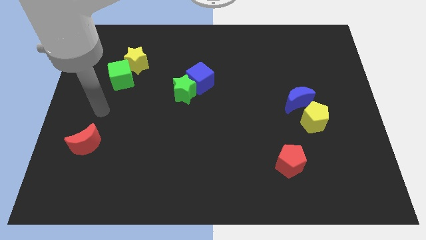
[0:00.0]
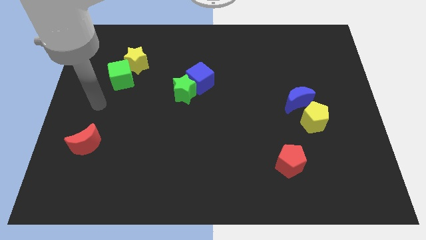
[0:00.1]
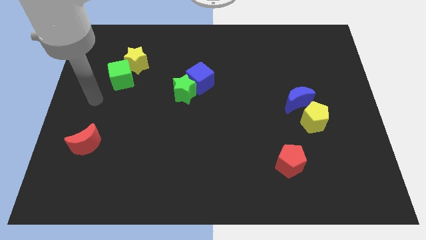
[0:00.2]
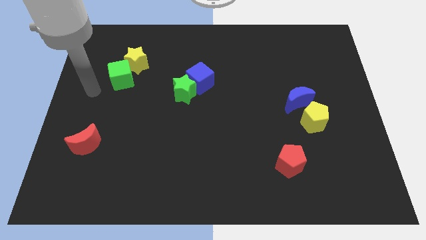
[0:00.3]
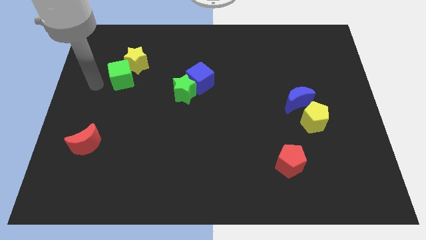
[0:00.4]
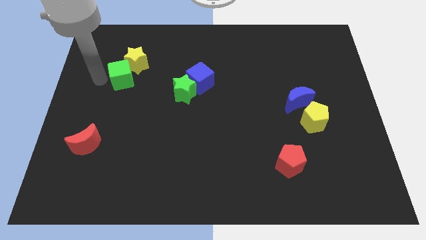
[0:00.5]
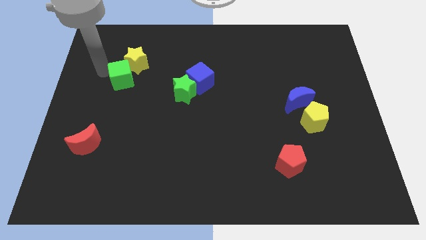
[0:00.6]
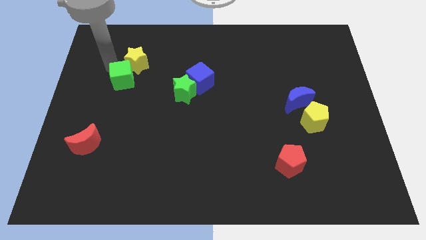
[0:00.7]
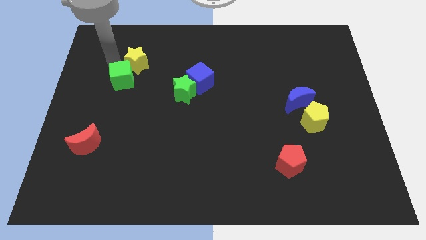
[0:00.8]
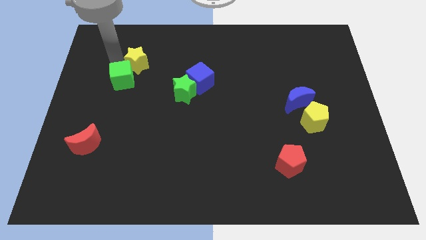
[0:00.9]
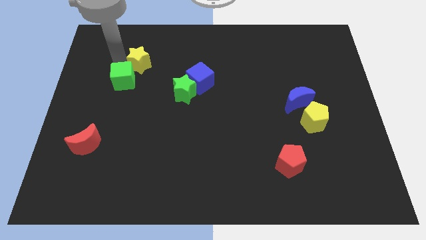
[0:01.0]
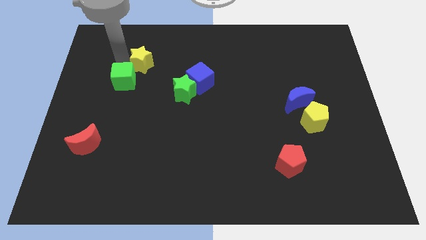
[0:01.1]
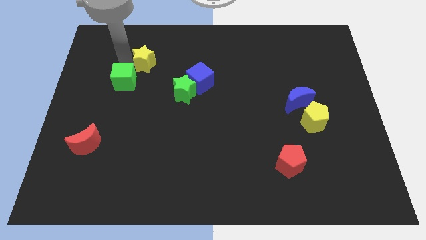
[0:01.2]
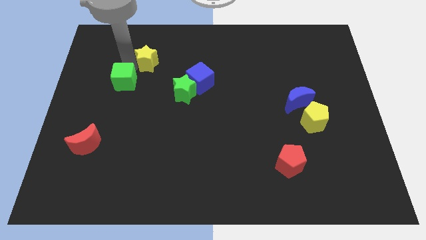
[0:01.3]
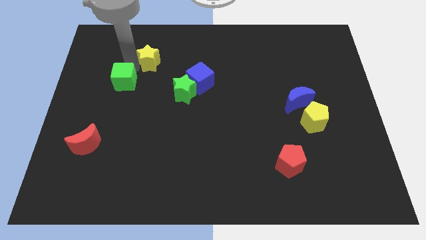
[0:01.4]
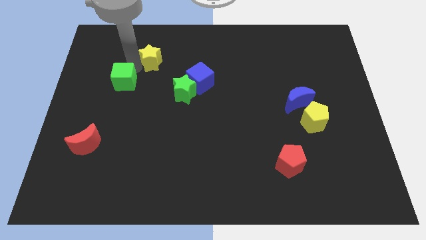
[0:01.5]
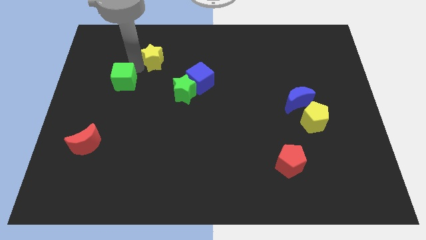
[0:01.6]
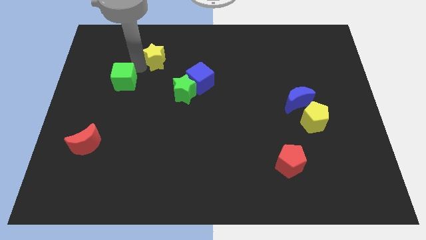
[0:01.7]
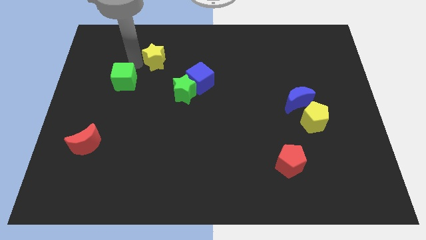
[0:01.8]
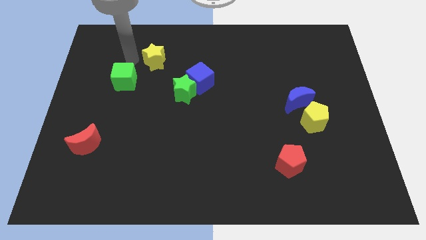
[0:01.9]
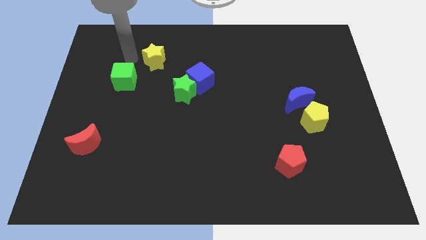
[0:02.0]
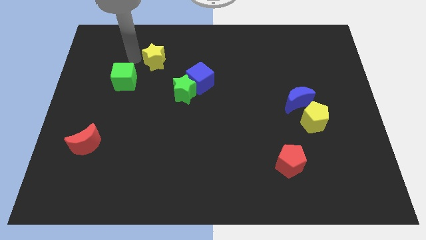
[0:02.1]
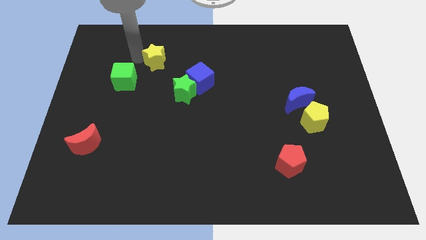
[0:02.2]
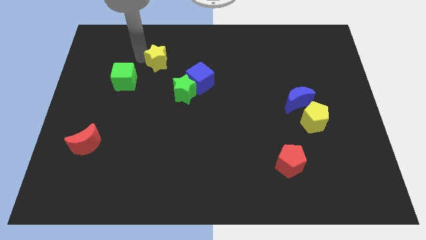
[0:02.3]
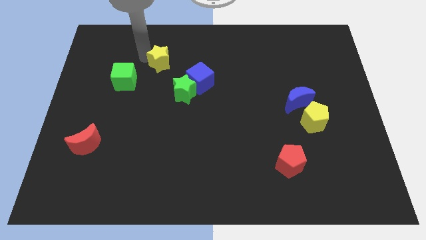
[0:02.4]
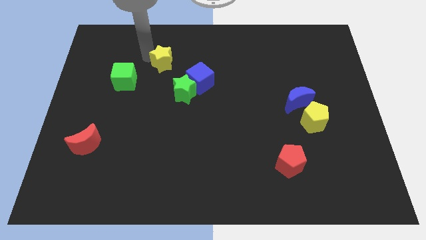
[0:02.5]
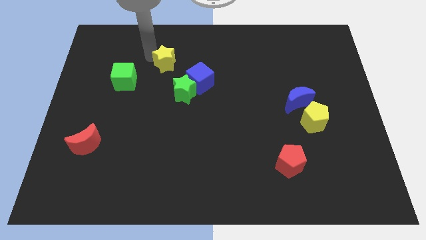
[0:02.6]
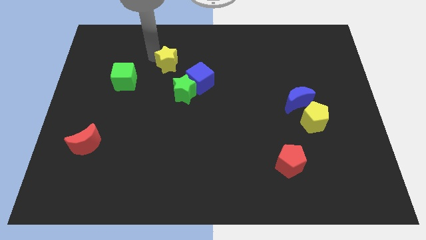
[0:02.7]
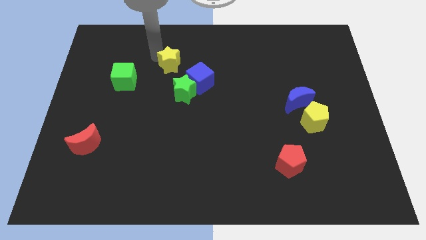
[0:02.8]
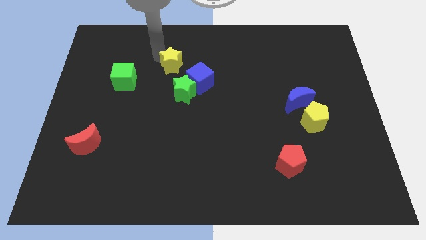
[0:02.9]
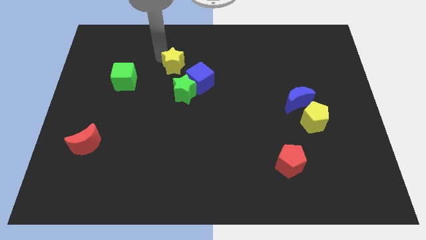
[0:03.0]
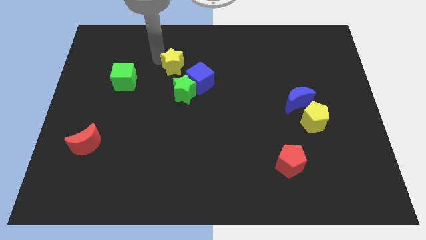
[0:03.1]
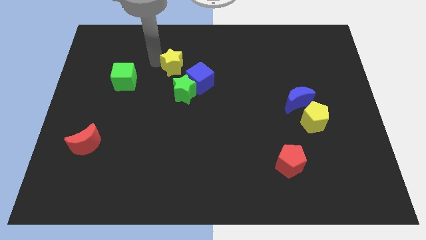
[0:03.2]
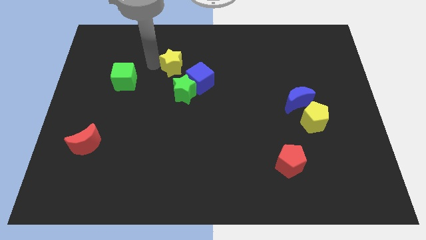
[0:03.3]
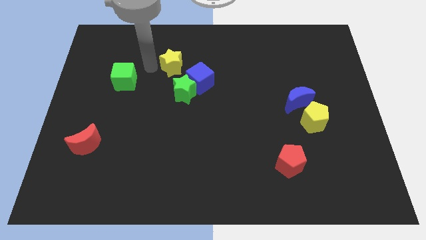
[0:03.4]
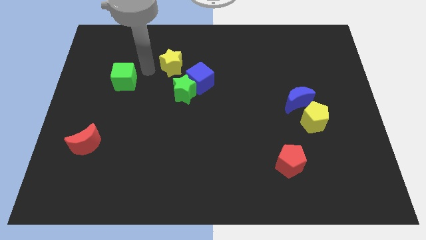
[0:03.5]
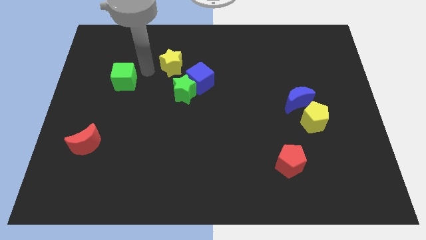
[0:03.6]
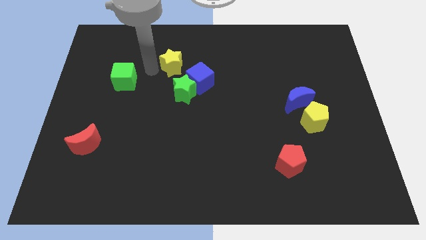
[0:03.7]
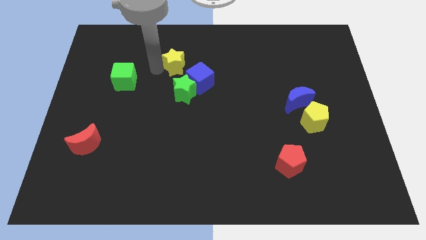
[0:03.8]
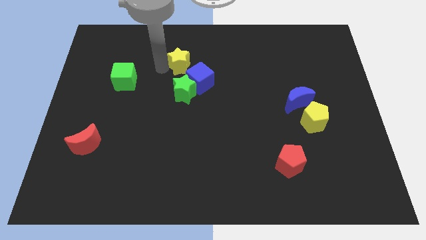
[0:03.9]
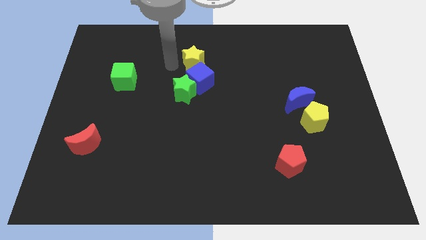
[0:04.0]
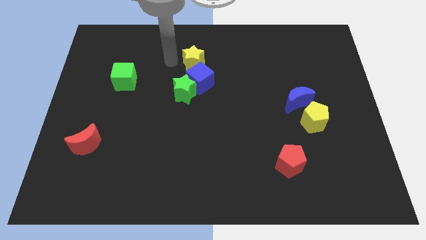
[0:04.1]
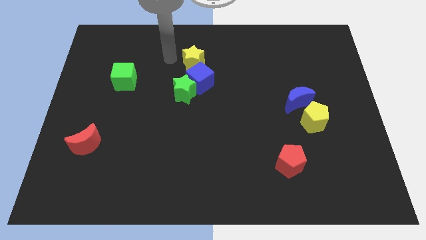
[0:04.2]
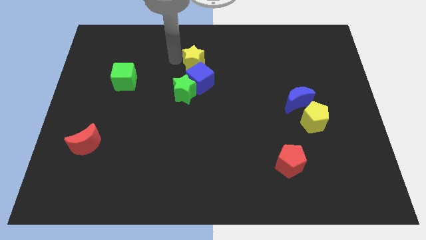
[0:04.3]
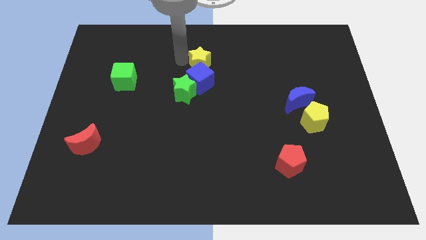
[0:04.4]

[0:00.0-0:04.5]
push the yellow star to the top right of the blue cube

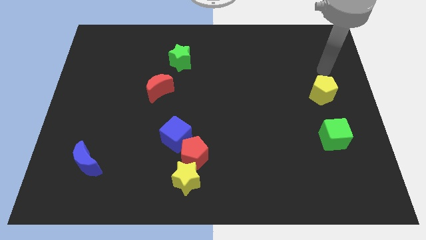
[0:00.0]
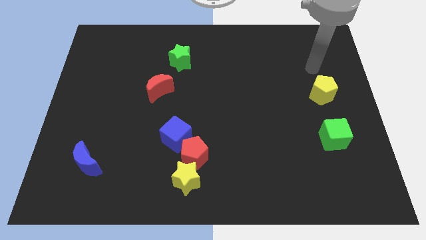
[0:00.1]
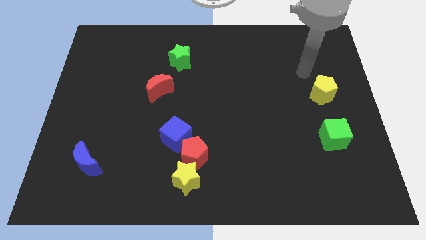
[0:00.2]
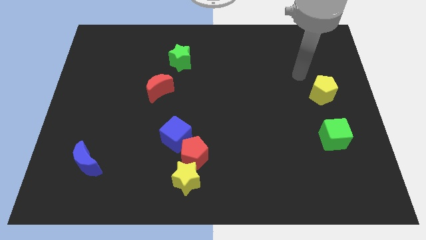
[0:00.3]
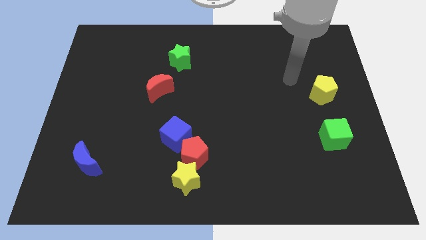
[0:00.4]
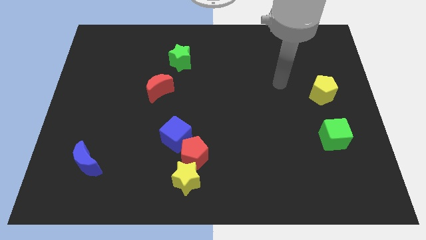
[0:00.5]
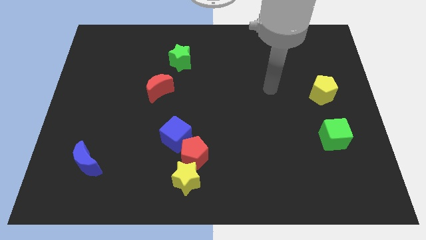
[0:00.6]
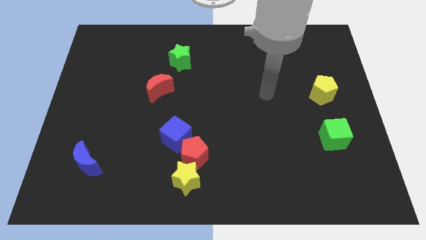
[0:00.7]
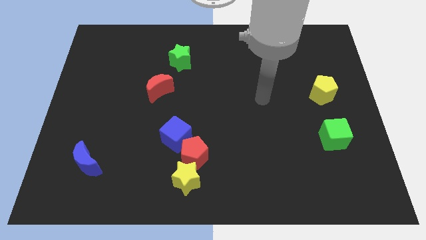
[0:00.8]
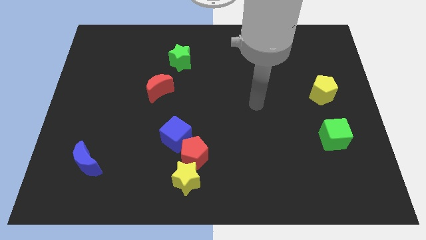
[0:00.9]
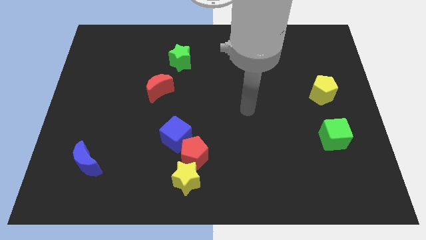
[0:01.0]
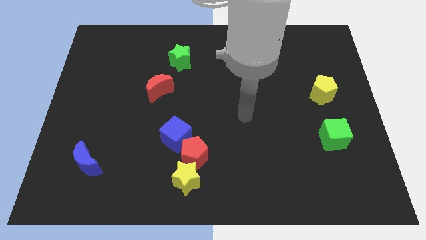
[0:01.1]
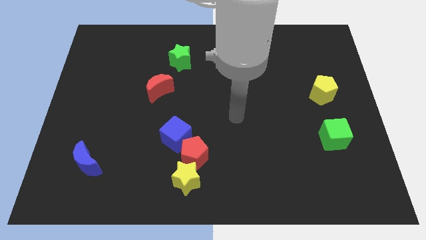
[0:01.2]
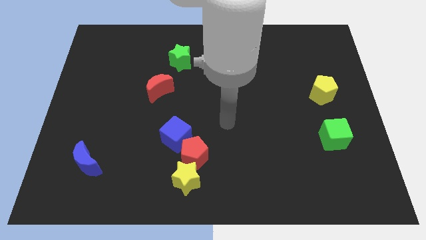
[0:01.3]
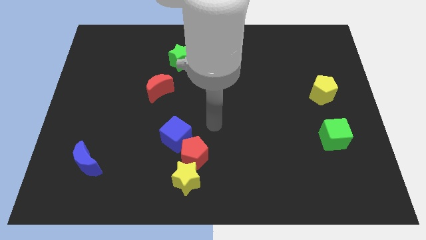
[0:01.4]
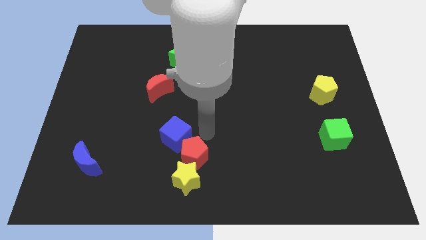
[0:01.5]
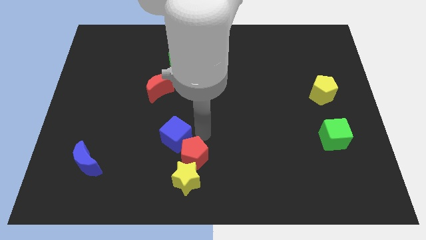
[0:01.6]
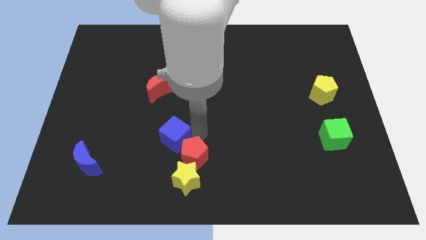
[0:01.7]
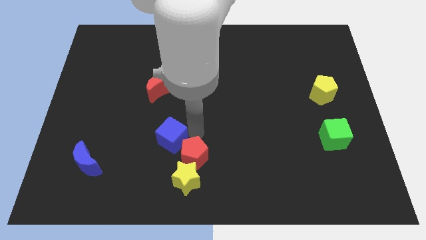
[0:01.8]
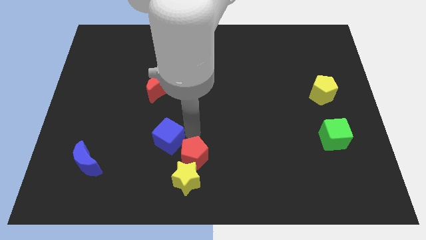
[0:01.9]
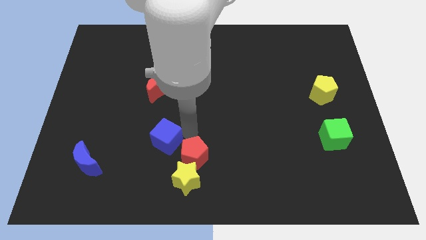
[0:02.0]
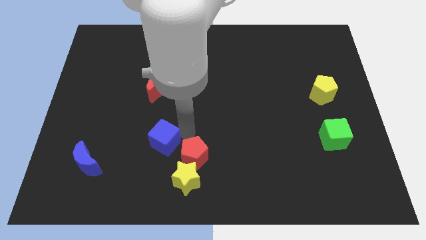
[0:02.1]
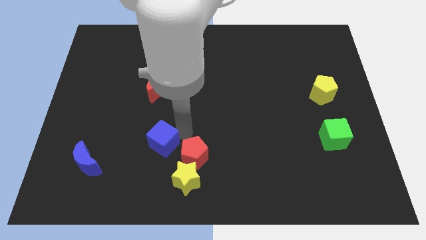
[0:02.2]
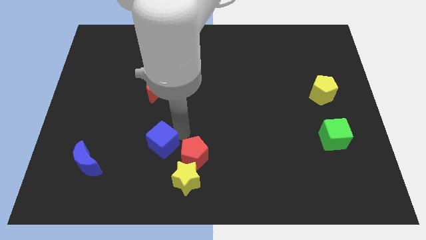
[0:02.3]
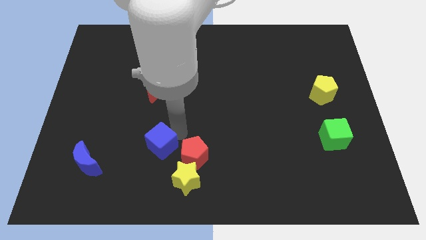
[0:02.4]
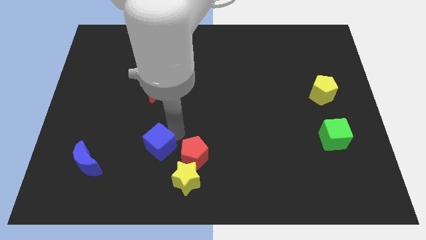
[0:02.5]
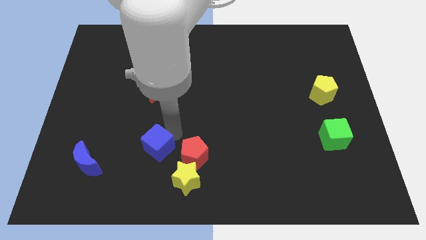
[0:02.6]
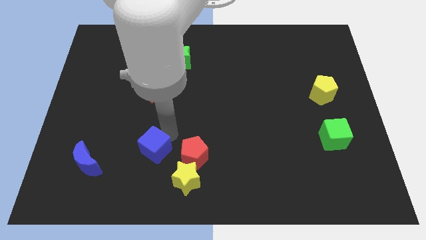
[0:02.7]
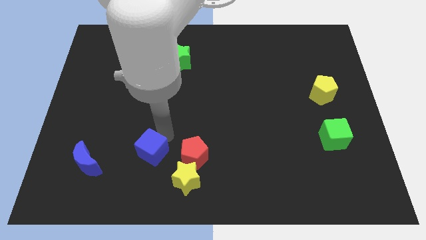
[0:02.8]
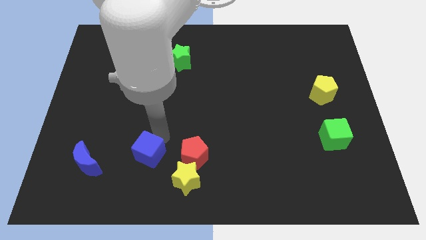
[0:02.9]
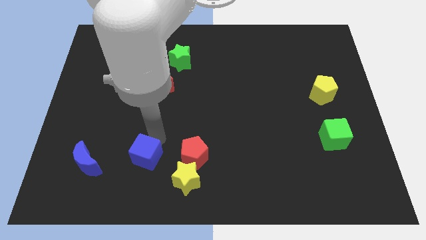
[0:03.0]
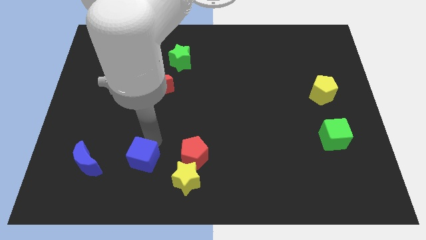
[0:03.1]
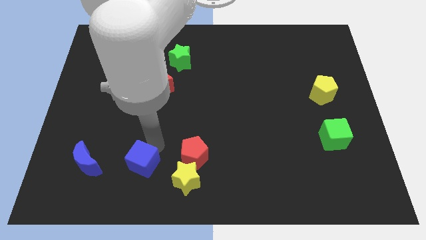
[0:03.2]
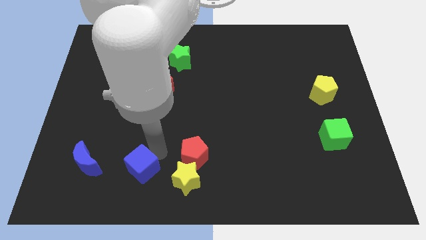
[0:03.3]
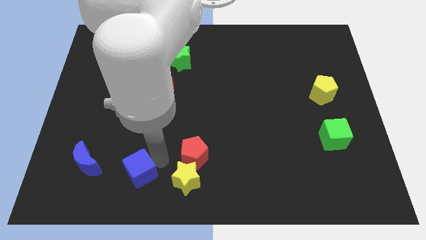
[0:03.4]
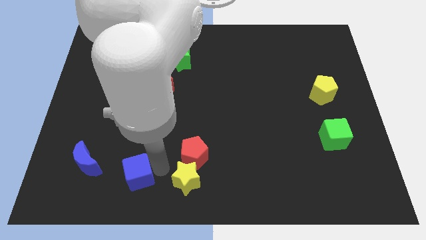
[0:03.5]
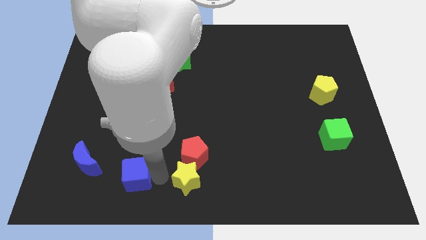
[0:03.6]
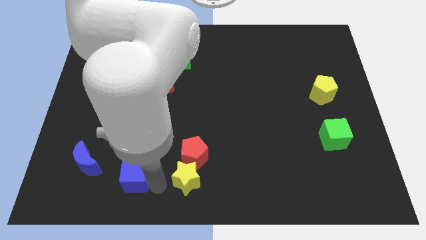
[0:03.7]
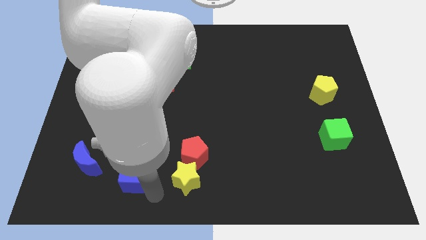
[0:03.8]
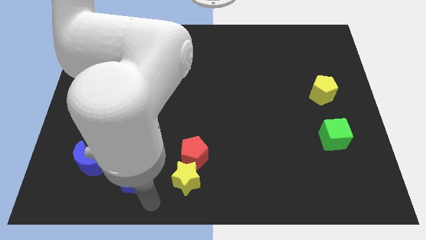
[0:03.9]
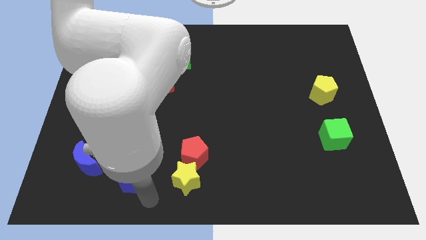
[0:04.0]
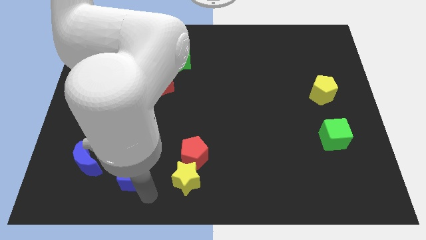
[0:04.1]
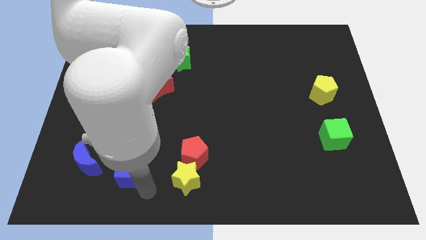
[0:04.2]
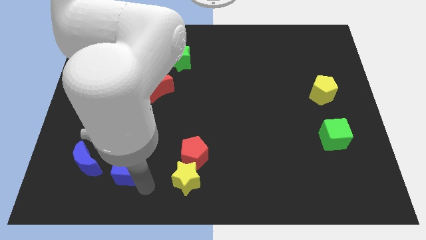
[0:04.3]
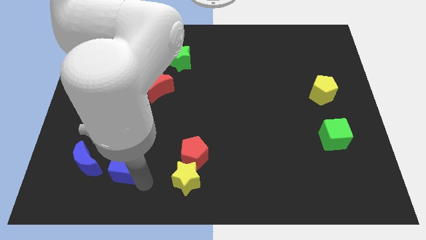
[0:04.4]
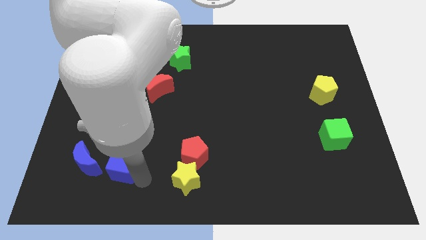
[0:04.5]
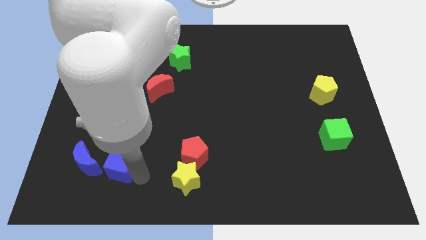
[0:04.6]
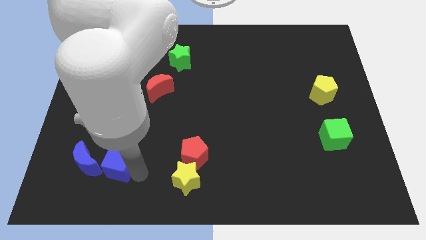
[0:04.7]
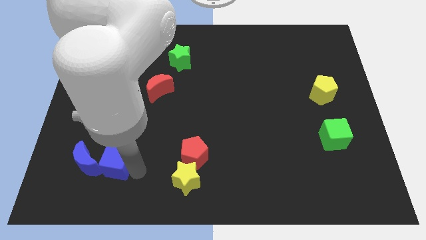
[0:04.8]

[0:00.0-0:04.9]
slide the blue cube to the top right side of the blue moon
